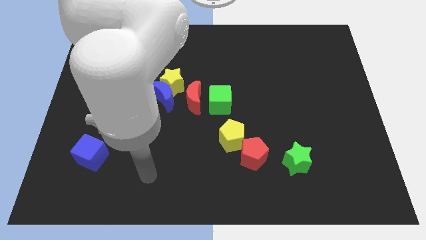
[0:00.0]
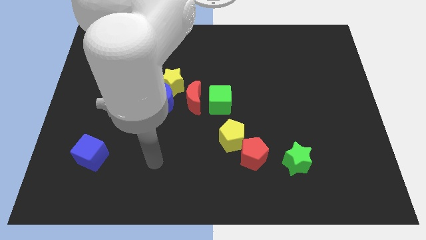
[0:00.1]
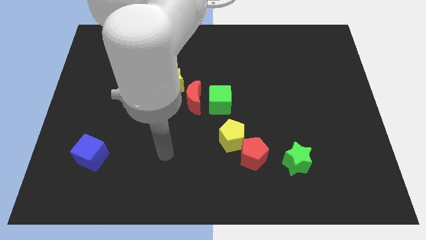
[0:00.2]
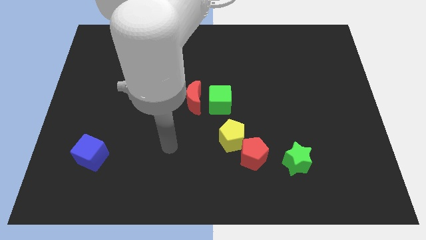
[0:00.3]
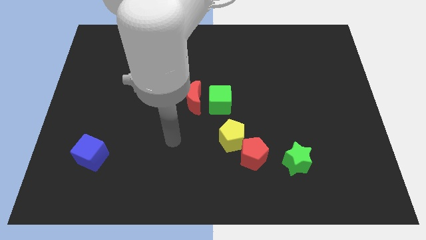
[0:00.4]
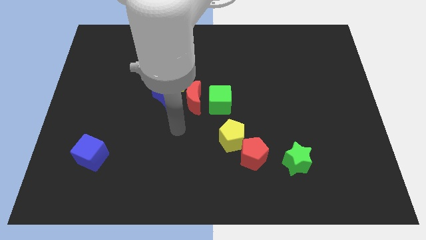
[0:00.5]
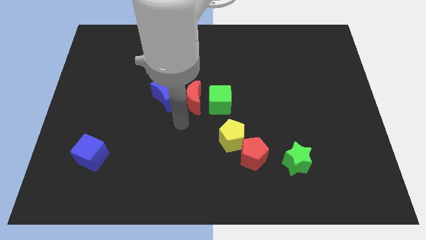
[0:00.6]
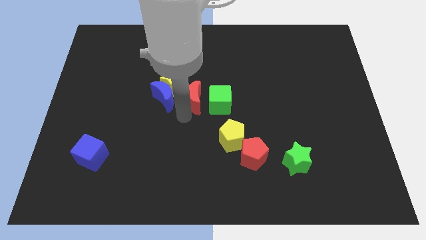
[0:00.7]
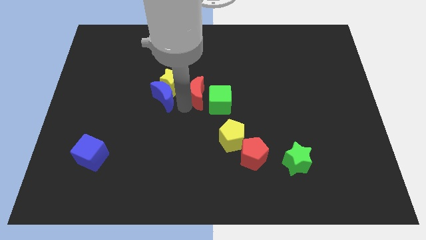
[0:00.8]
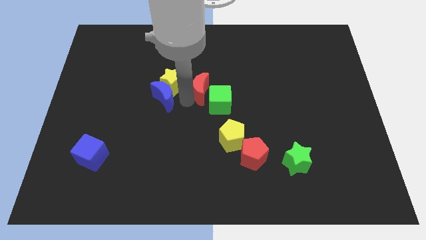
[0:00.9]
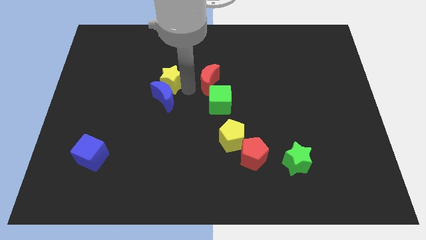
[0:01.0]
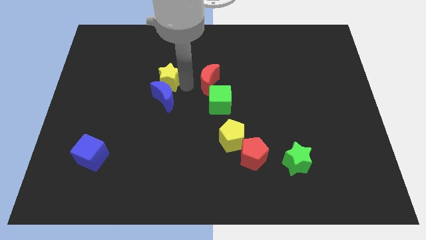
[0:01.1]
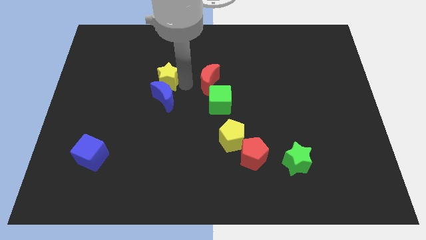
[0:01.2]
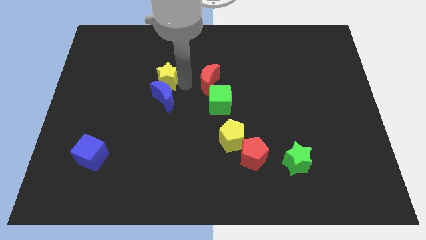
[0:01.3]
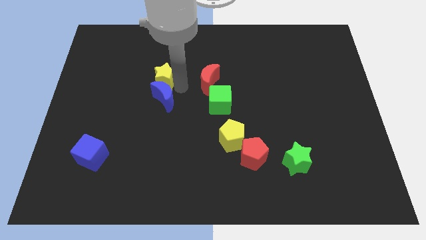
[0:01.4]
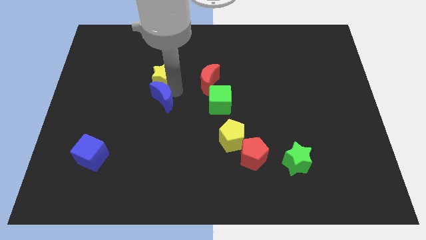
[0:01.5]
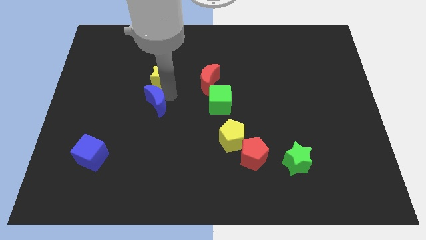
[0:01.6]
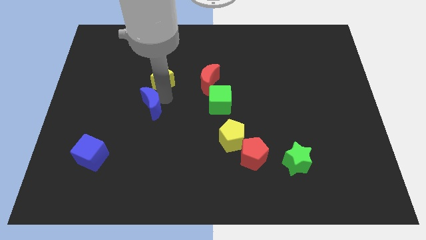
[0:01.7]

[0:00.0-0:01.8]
separate the blue moon from the yellow star and red moon

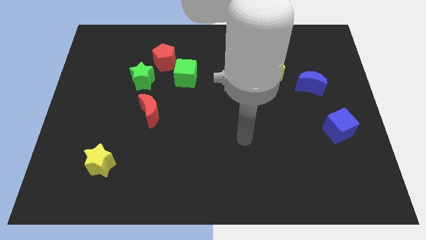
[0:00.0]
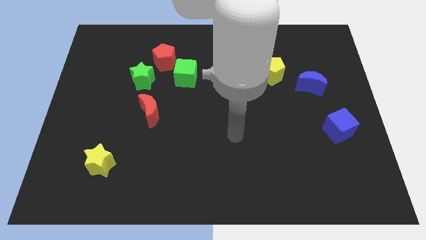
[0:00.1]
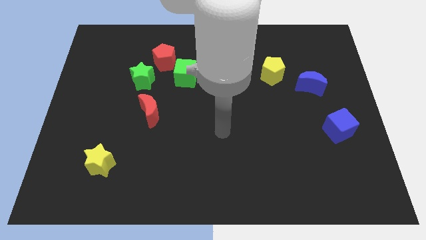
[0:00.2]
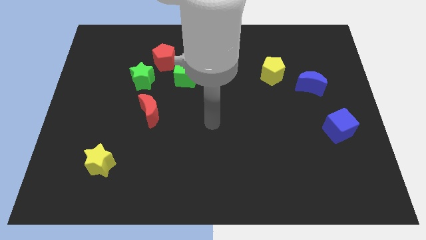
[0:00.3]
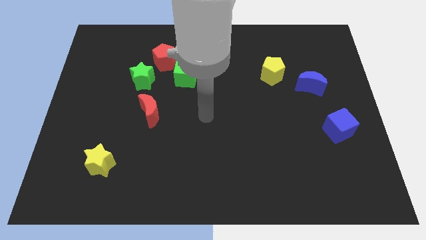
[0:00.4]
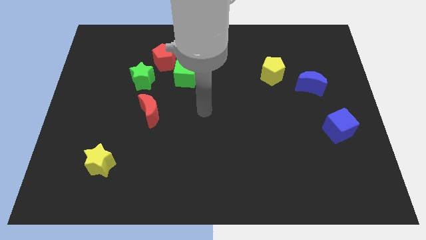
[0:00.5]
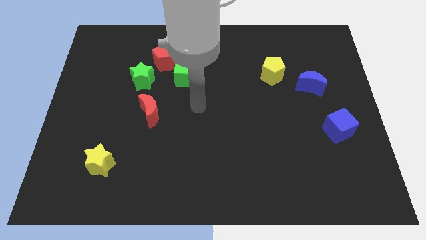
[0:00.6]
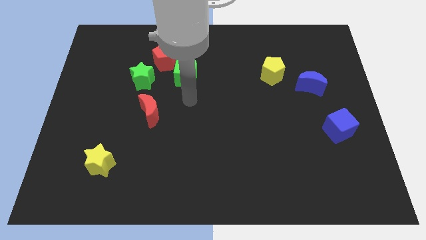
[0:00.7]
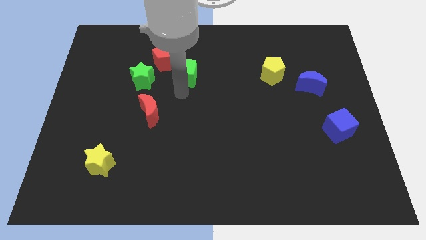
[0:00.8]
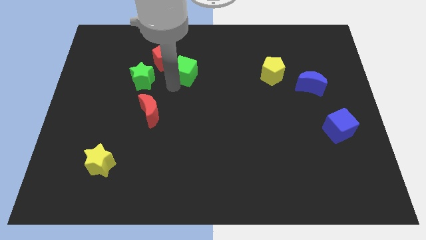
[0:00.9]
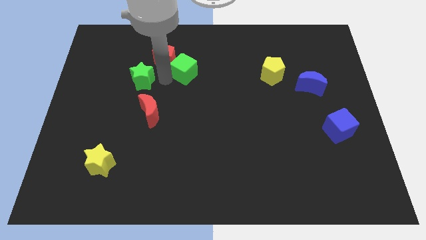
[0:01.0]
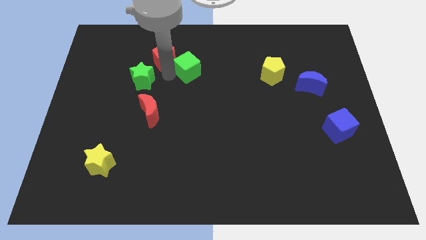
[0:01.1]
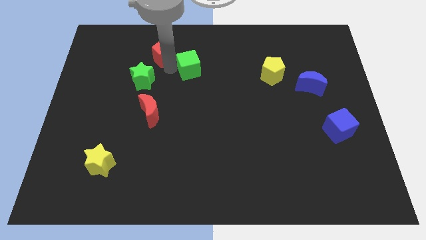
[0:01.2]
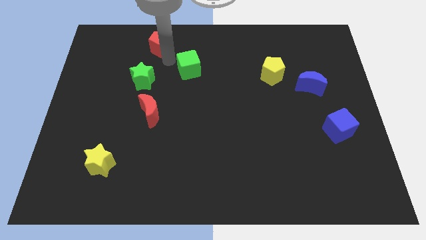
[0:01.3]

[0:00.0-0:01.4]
move the green cube away from the red pentagon

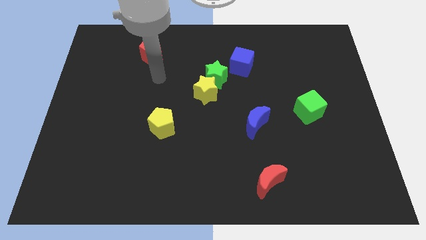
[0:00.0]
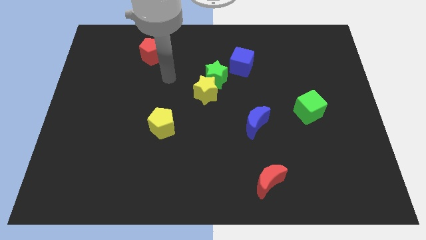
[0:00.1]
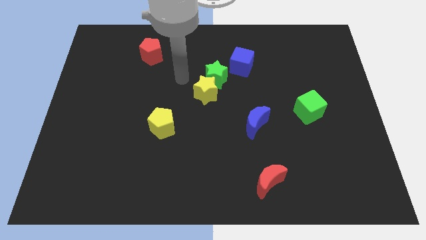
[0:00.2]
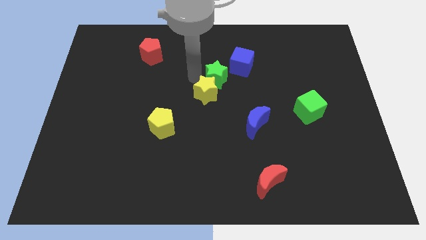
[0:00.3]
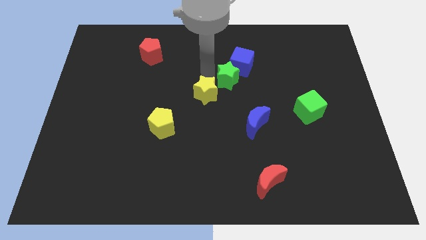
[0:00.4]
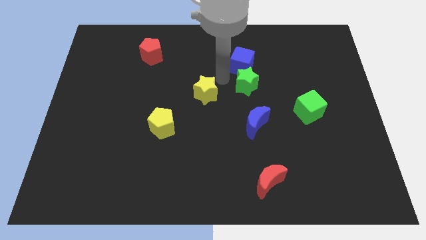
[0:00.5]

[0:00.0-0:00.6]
separate the yellow star from the green star

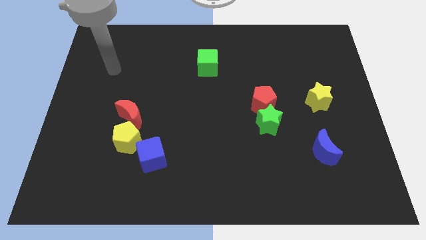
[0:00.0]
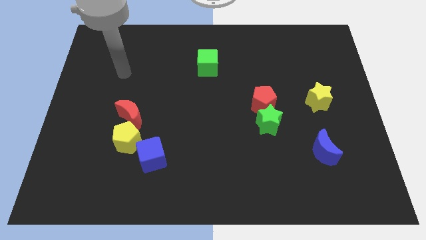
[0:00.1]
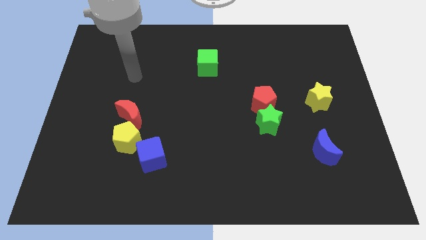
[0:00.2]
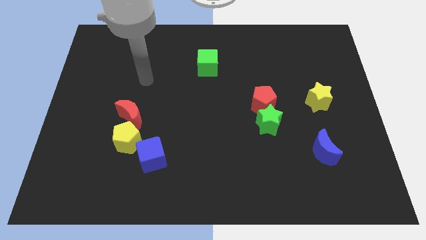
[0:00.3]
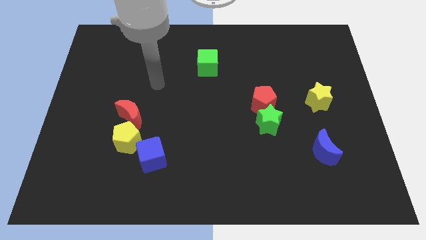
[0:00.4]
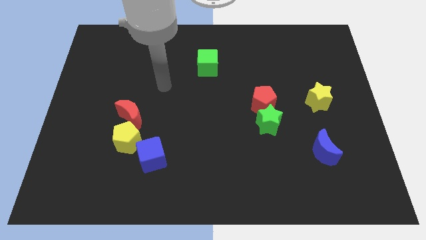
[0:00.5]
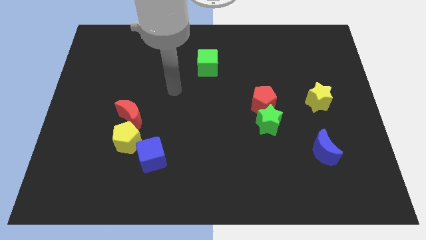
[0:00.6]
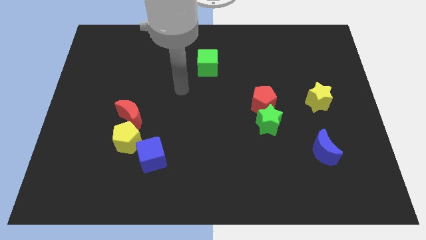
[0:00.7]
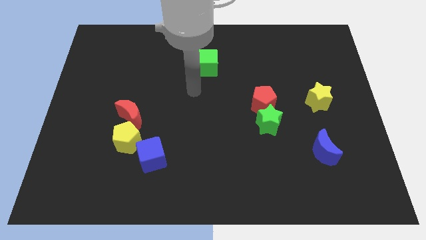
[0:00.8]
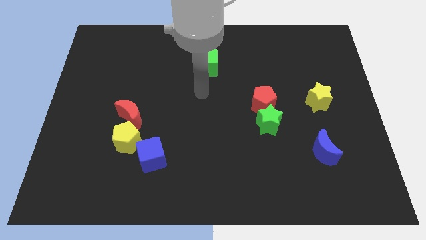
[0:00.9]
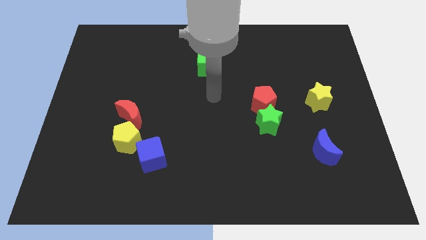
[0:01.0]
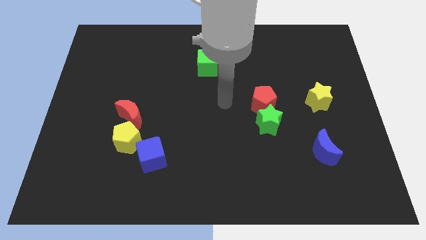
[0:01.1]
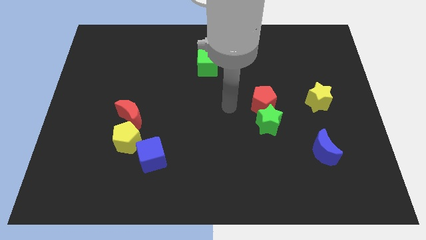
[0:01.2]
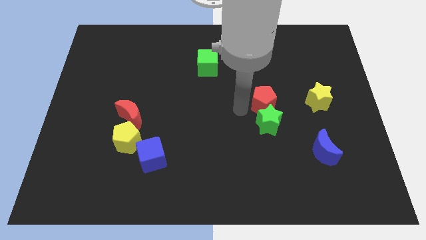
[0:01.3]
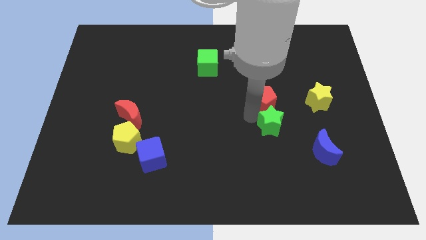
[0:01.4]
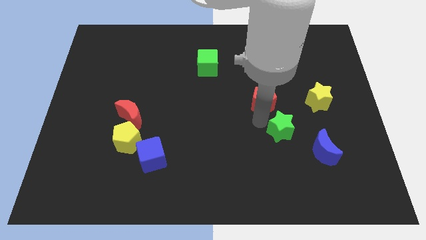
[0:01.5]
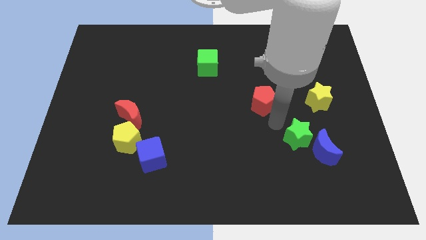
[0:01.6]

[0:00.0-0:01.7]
pull the red pentagon apart from the green star

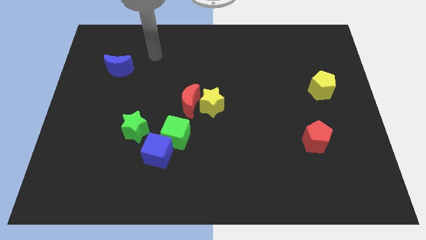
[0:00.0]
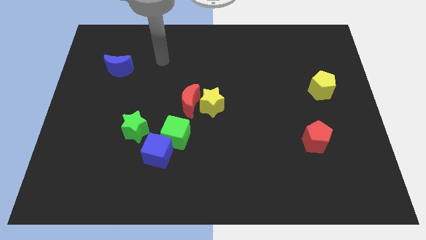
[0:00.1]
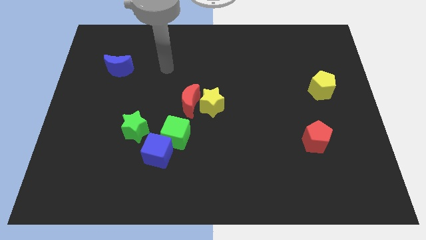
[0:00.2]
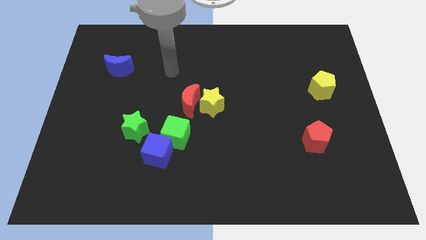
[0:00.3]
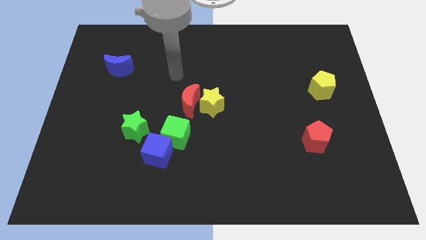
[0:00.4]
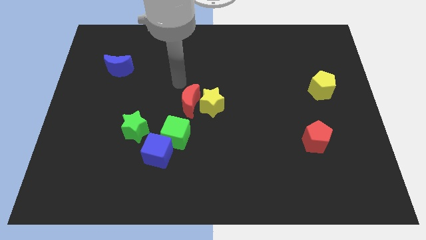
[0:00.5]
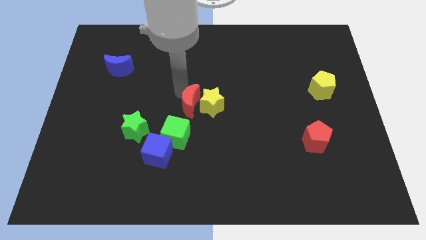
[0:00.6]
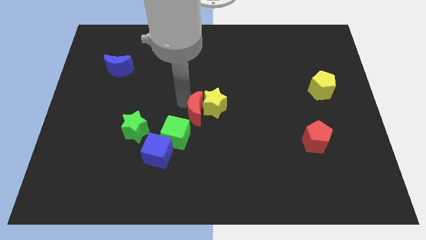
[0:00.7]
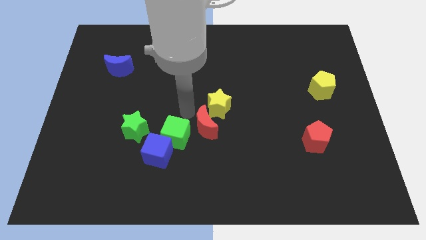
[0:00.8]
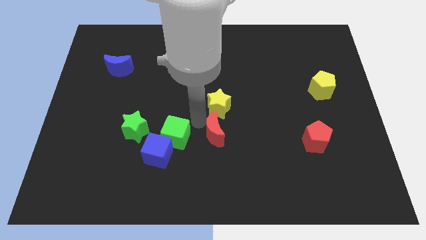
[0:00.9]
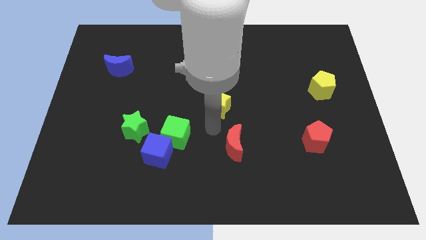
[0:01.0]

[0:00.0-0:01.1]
move the yellow star away from the red moon

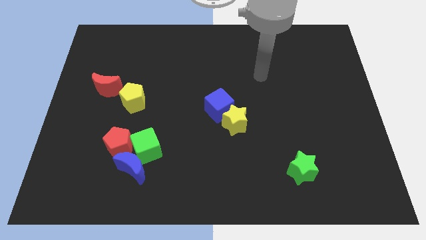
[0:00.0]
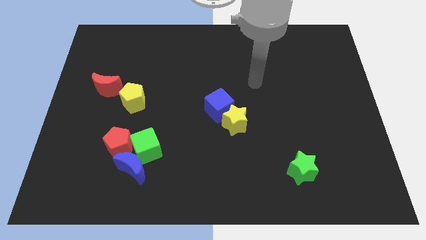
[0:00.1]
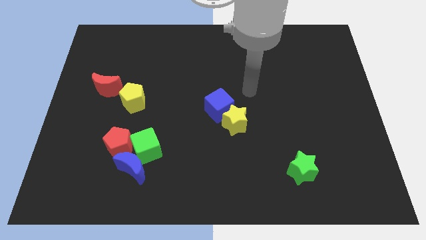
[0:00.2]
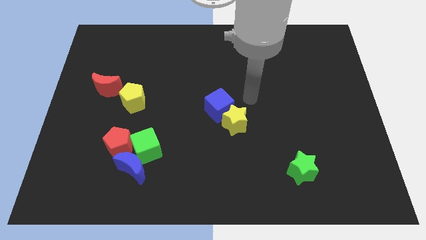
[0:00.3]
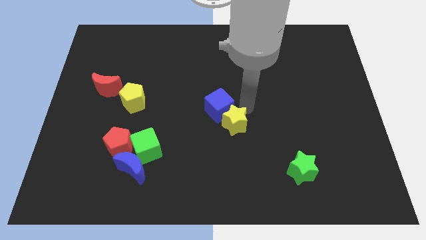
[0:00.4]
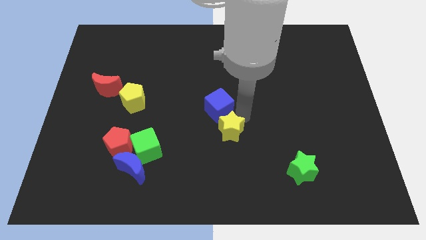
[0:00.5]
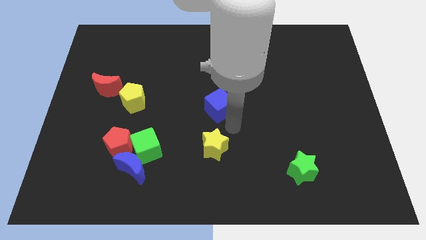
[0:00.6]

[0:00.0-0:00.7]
pull the blue cube apart from the yellow star

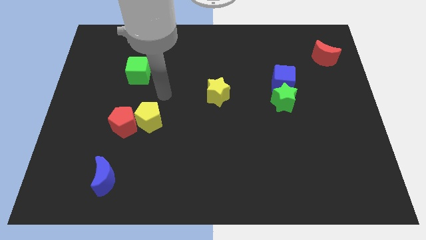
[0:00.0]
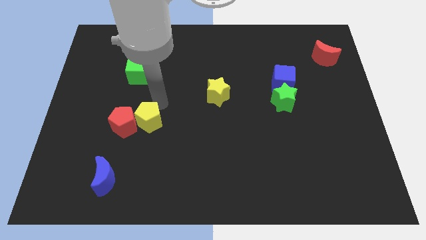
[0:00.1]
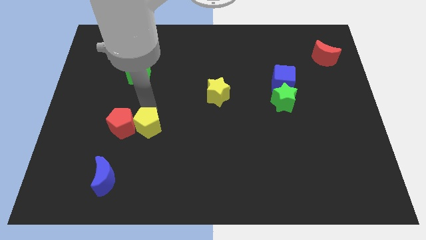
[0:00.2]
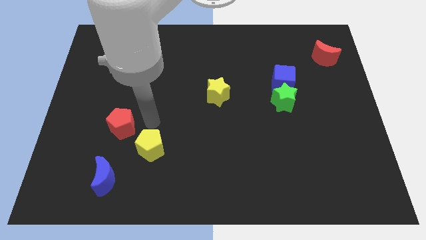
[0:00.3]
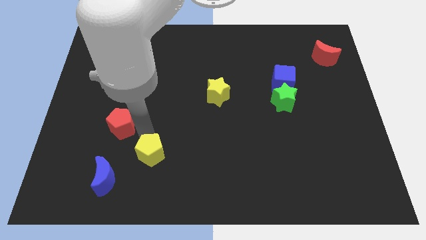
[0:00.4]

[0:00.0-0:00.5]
move the red pentagon away from the yellow pentagon

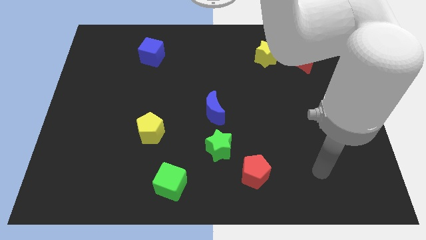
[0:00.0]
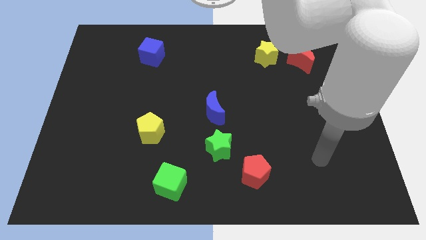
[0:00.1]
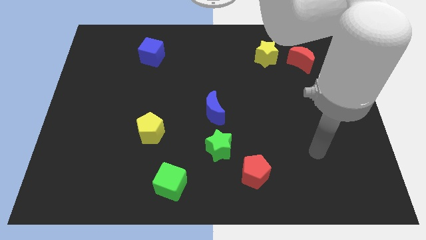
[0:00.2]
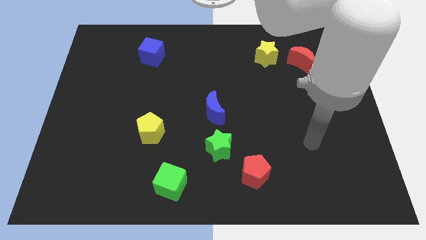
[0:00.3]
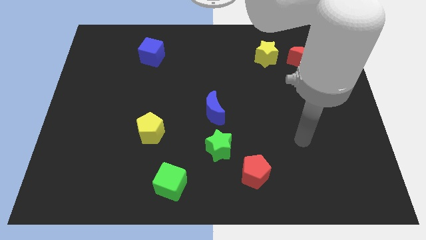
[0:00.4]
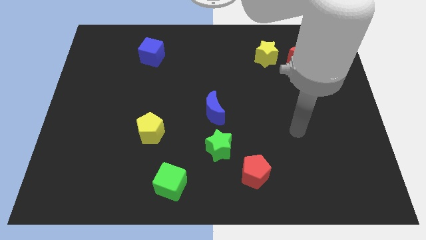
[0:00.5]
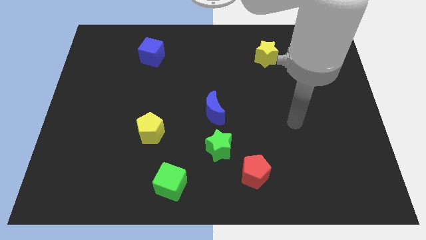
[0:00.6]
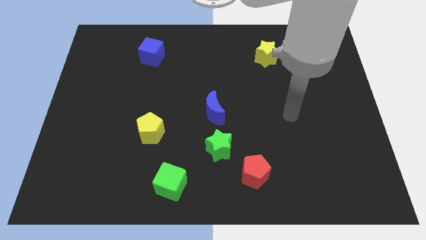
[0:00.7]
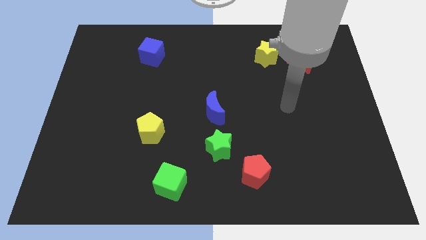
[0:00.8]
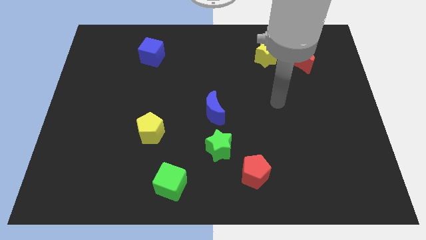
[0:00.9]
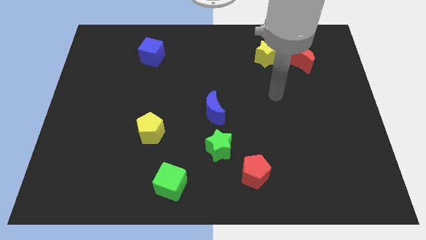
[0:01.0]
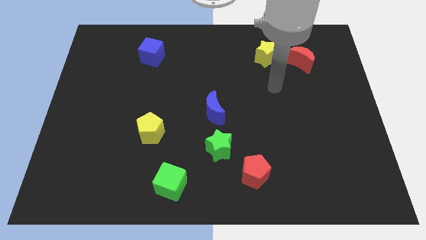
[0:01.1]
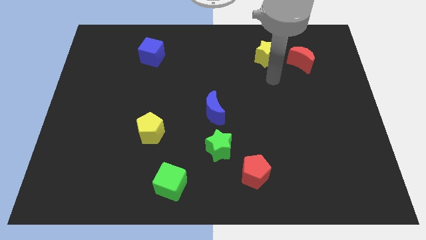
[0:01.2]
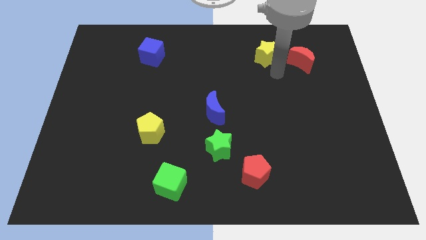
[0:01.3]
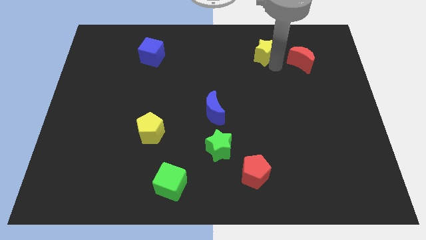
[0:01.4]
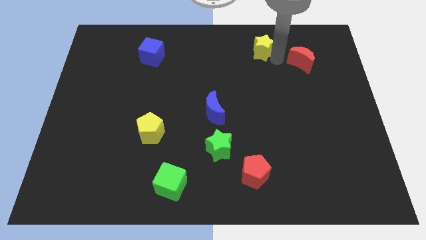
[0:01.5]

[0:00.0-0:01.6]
separate the red moon from the yellow star
